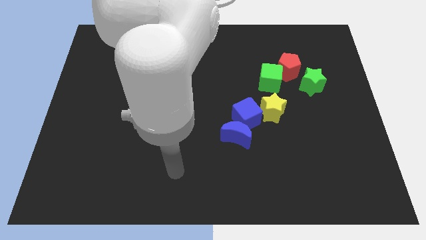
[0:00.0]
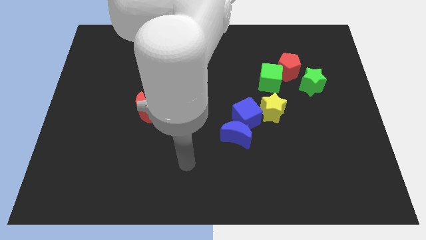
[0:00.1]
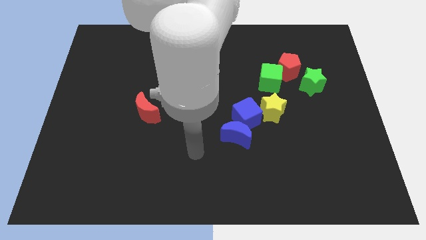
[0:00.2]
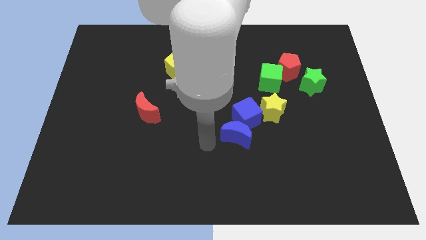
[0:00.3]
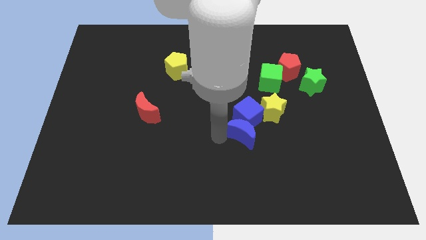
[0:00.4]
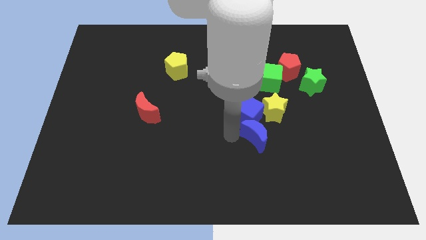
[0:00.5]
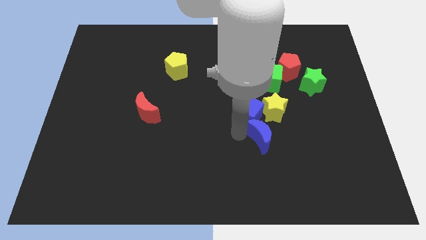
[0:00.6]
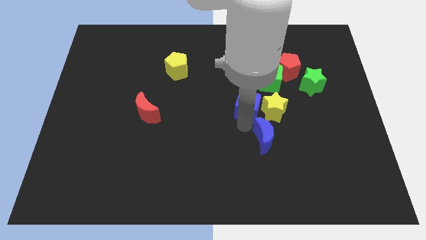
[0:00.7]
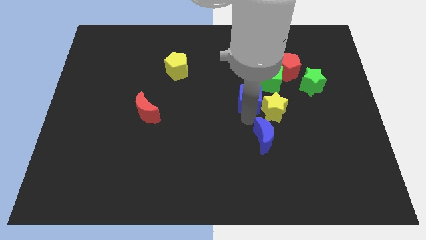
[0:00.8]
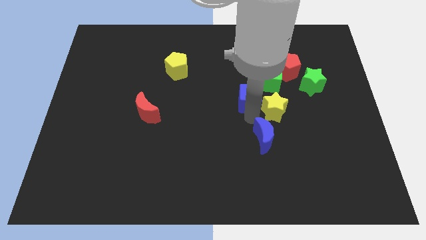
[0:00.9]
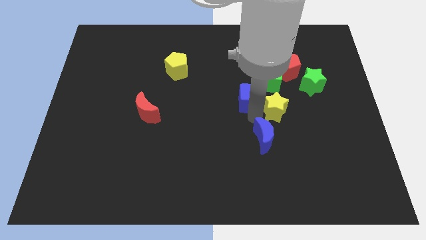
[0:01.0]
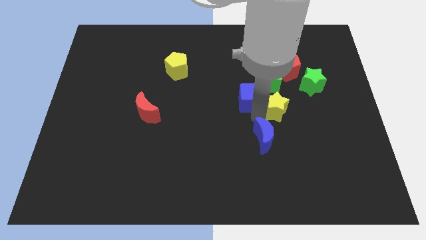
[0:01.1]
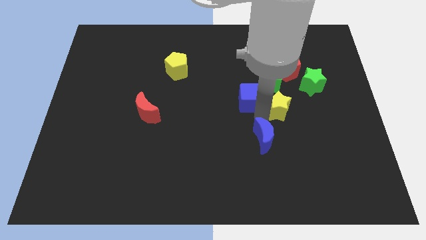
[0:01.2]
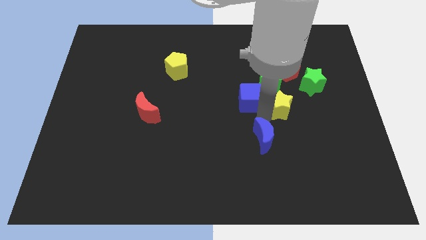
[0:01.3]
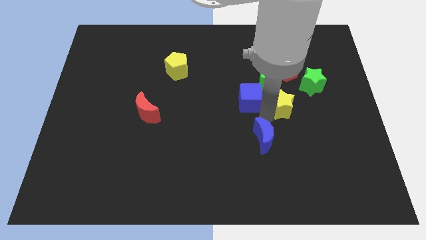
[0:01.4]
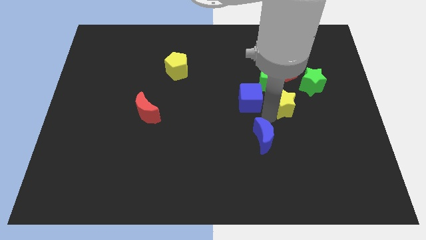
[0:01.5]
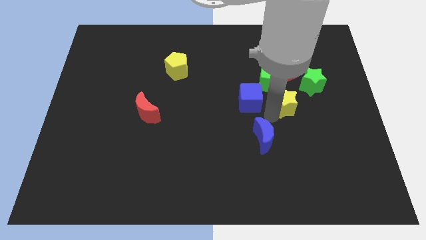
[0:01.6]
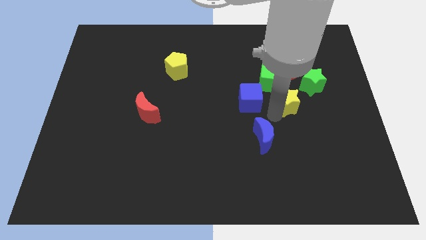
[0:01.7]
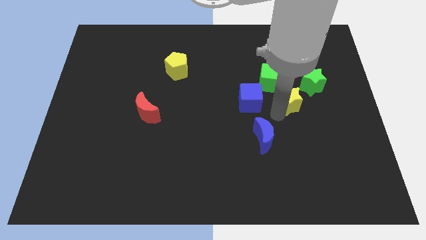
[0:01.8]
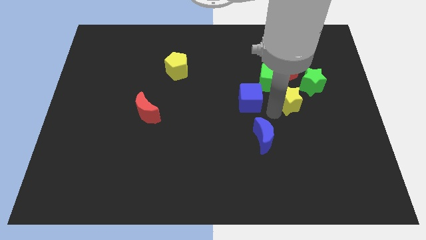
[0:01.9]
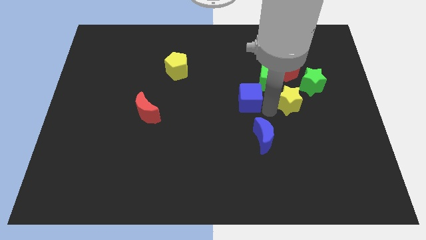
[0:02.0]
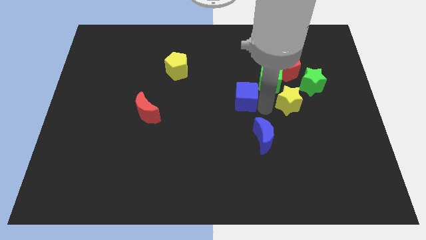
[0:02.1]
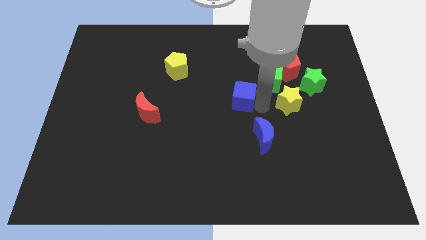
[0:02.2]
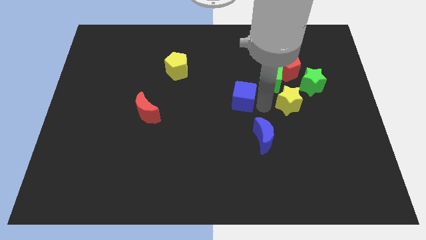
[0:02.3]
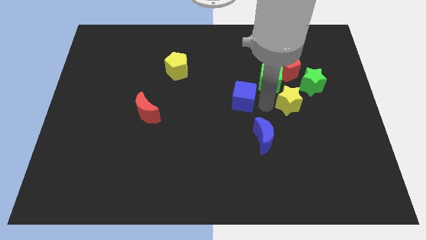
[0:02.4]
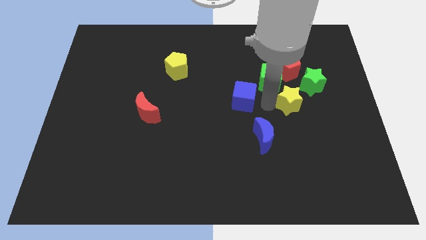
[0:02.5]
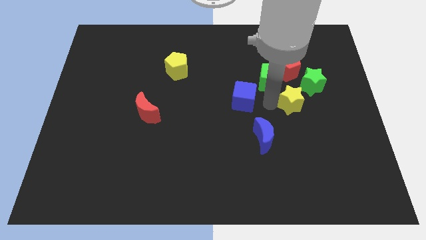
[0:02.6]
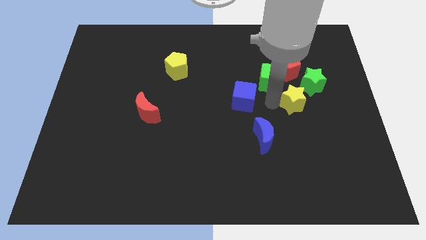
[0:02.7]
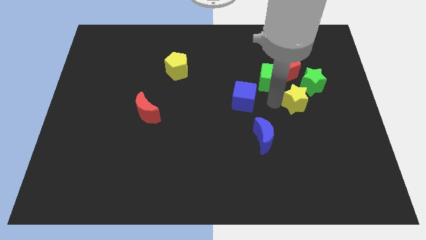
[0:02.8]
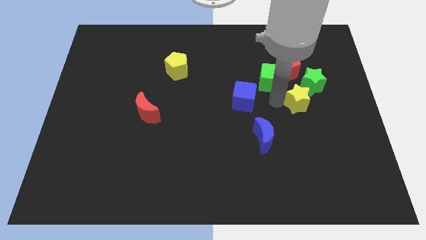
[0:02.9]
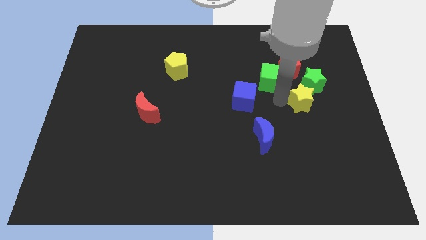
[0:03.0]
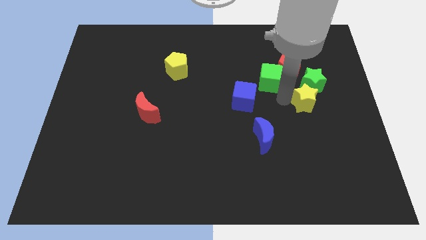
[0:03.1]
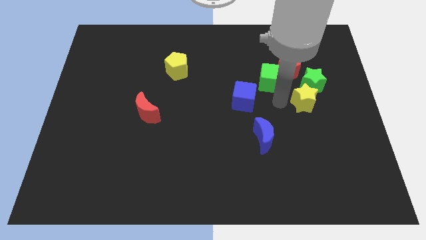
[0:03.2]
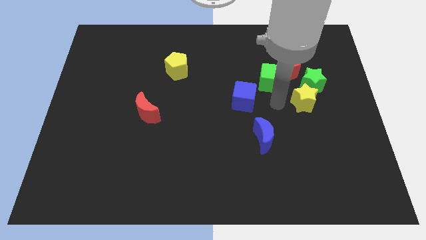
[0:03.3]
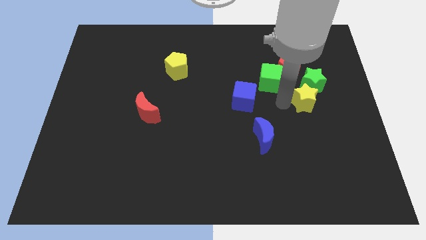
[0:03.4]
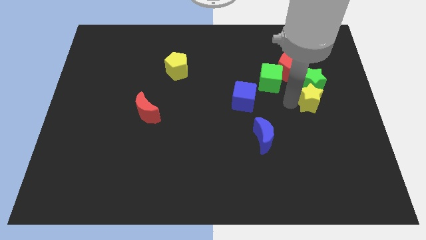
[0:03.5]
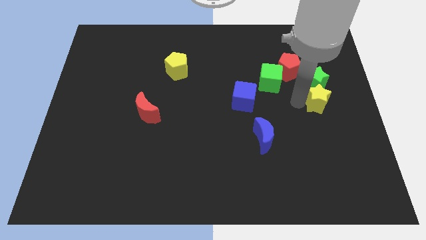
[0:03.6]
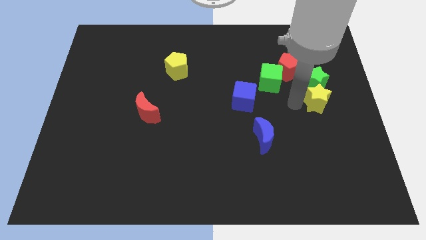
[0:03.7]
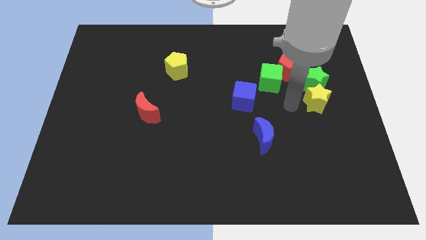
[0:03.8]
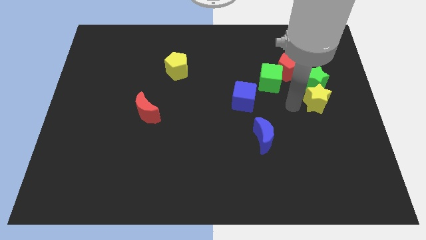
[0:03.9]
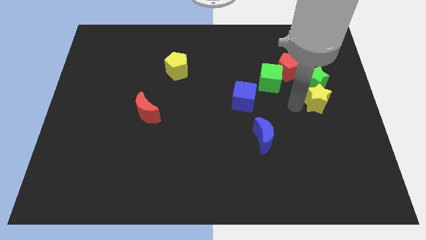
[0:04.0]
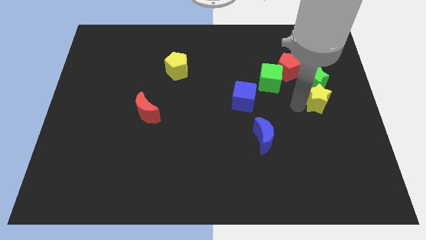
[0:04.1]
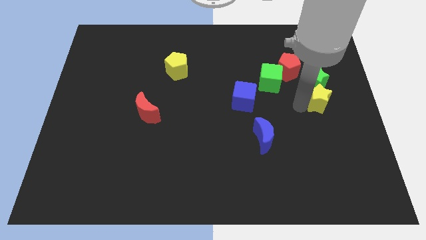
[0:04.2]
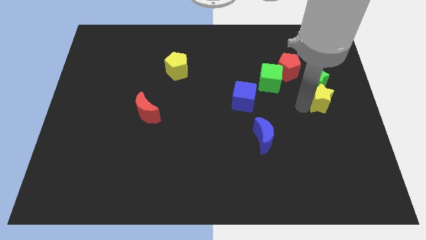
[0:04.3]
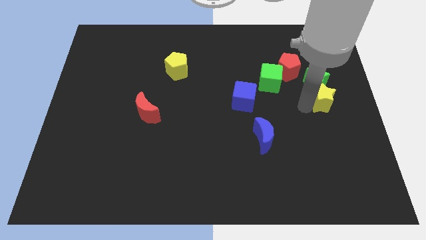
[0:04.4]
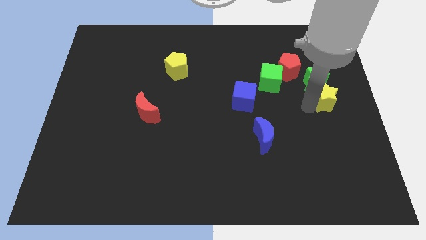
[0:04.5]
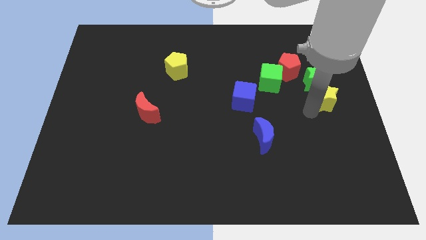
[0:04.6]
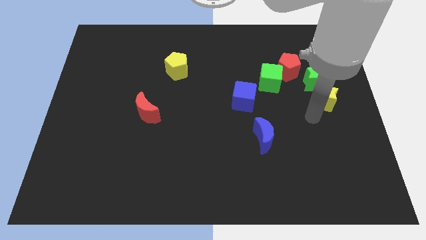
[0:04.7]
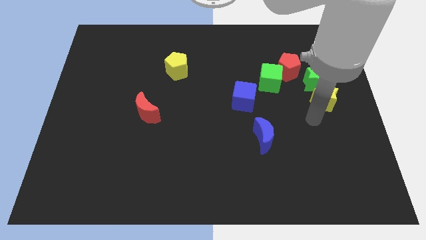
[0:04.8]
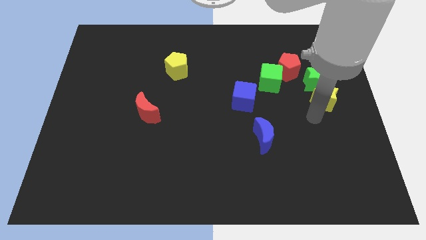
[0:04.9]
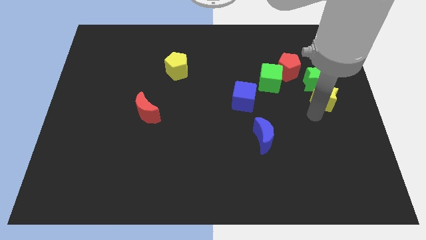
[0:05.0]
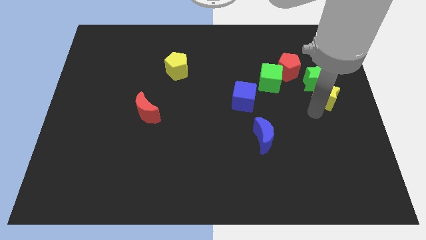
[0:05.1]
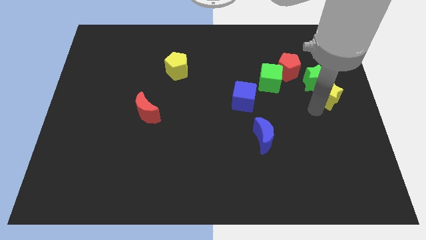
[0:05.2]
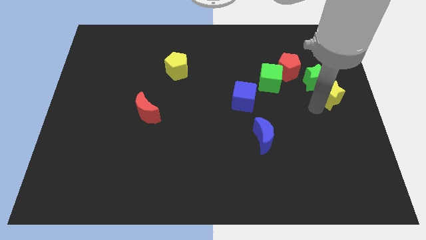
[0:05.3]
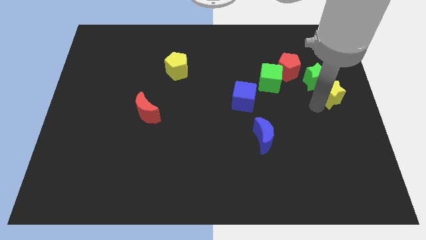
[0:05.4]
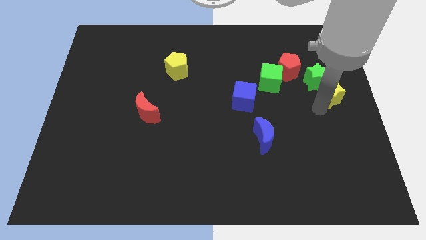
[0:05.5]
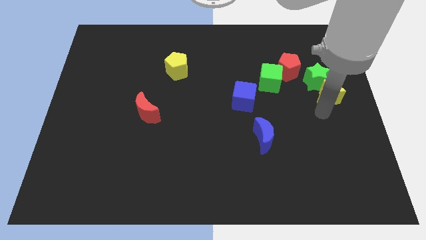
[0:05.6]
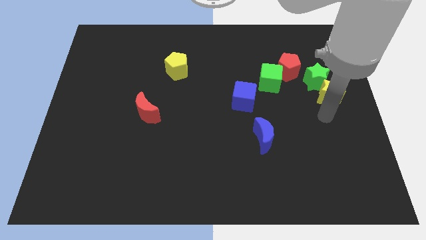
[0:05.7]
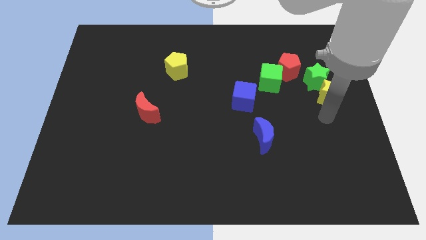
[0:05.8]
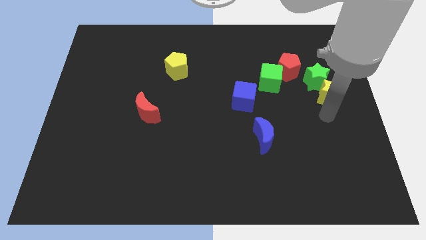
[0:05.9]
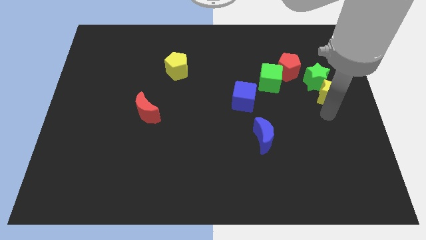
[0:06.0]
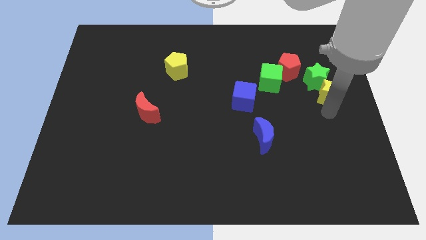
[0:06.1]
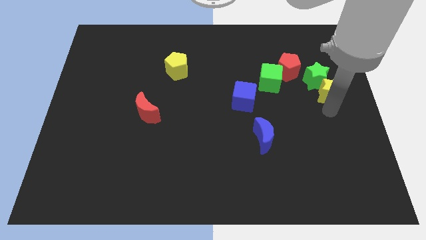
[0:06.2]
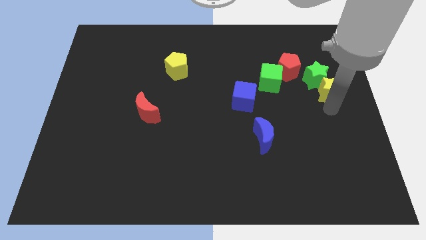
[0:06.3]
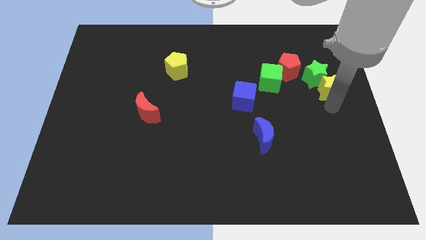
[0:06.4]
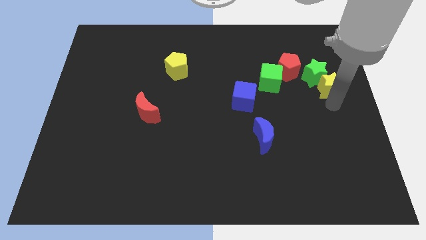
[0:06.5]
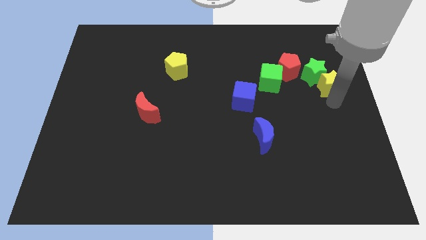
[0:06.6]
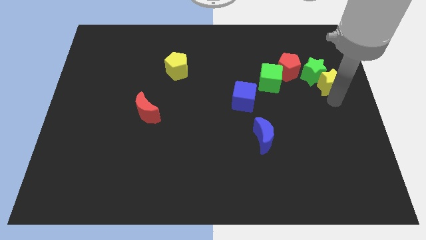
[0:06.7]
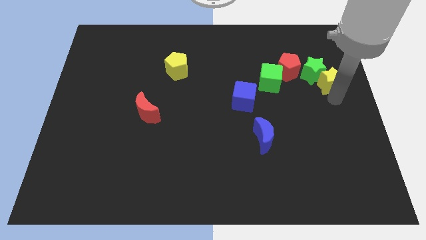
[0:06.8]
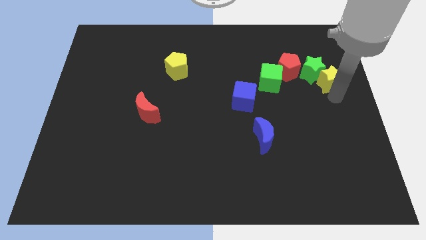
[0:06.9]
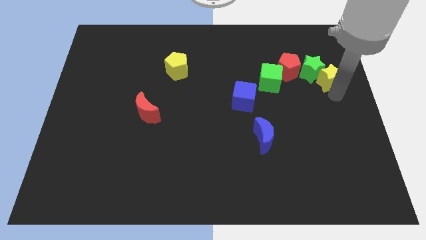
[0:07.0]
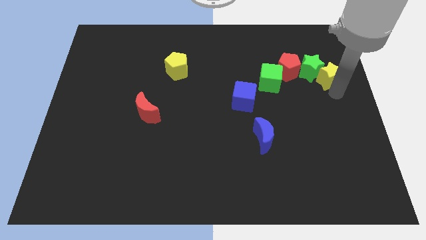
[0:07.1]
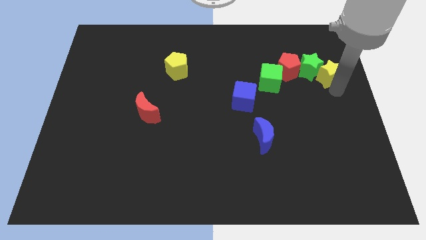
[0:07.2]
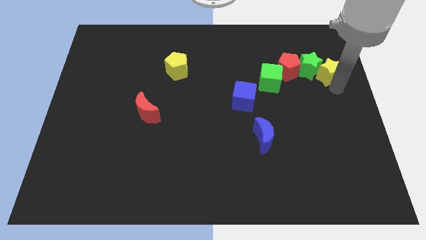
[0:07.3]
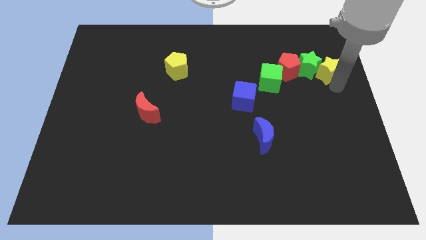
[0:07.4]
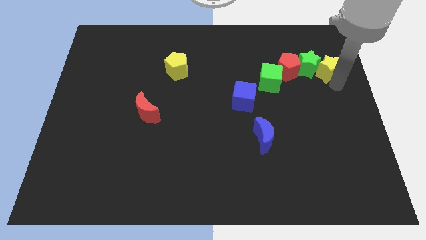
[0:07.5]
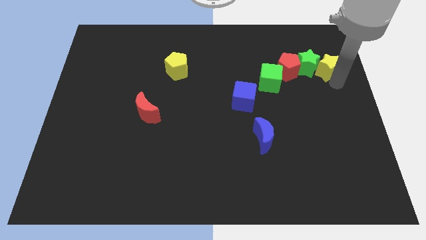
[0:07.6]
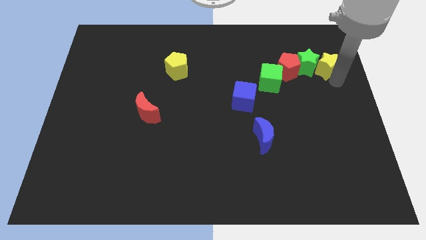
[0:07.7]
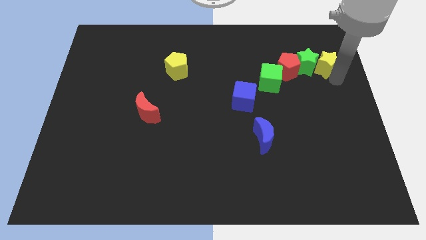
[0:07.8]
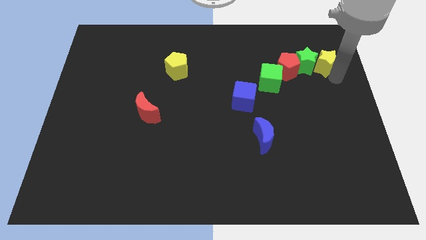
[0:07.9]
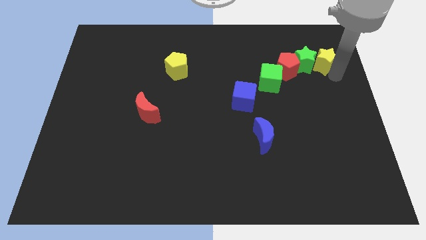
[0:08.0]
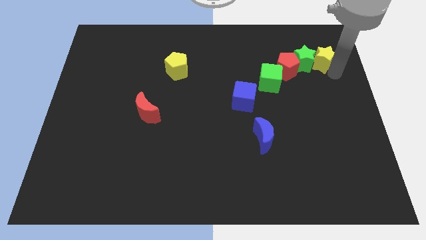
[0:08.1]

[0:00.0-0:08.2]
push the yellow star to the top right of the red pentagon
